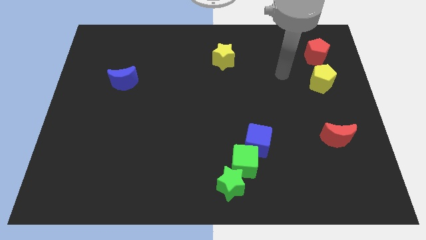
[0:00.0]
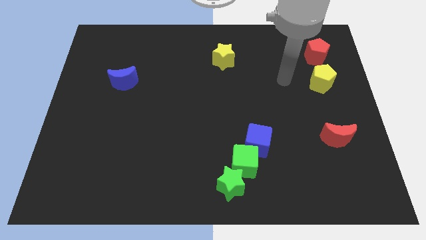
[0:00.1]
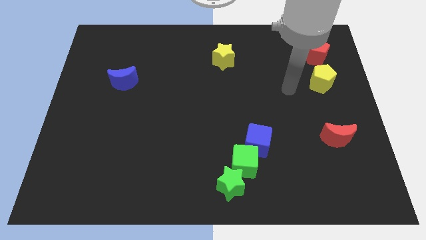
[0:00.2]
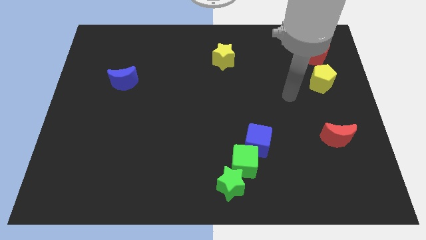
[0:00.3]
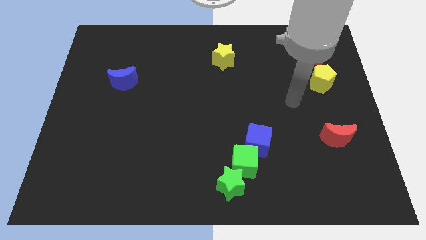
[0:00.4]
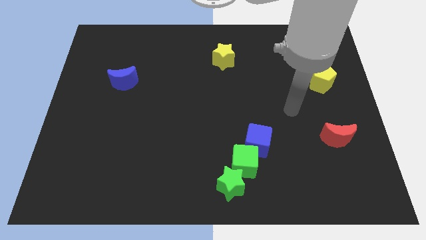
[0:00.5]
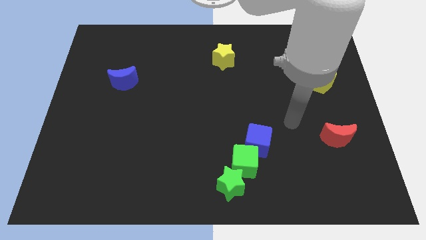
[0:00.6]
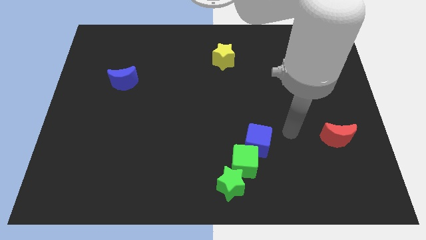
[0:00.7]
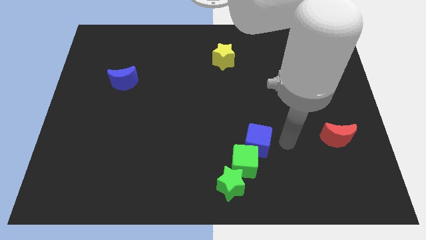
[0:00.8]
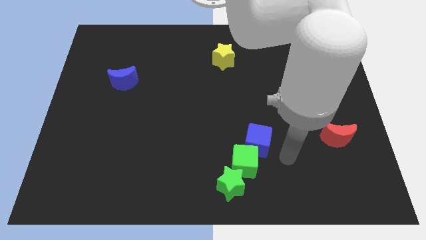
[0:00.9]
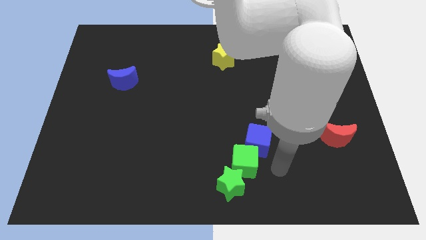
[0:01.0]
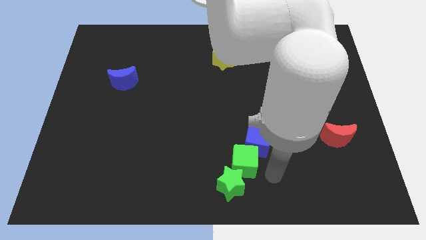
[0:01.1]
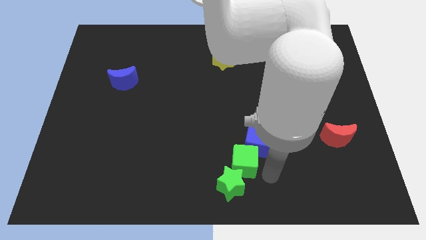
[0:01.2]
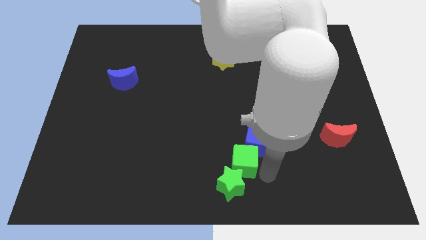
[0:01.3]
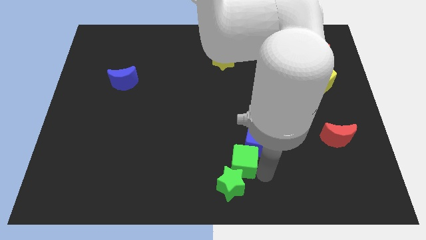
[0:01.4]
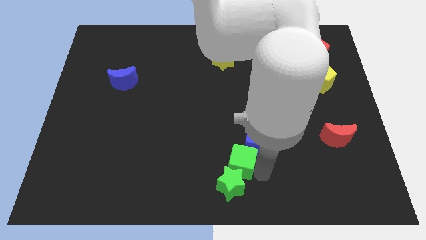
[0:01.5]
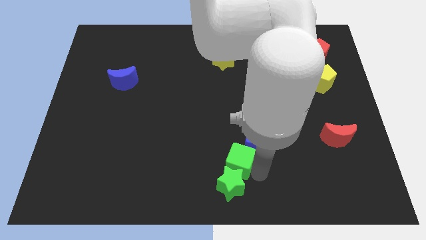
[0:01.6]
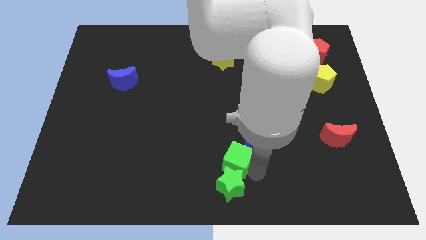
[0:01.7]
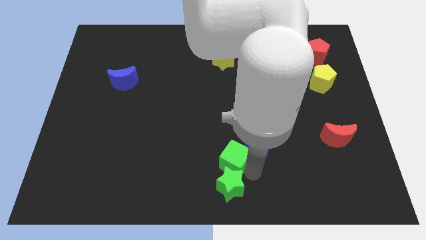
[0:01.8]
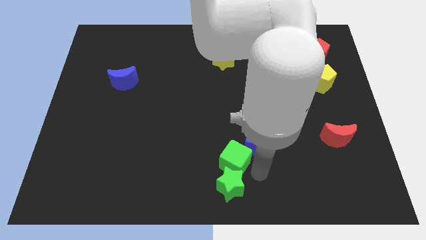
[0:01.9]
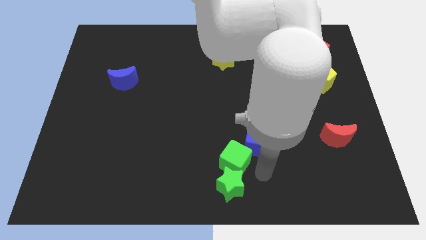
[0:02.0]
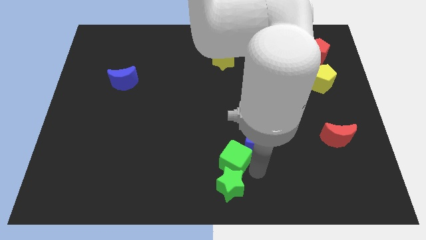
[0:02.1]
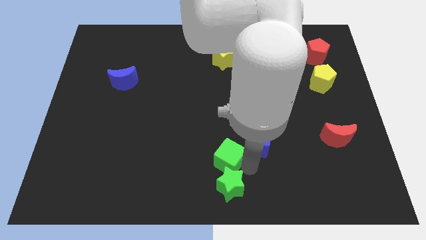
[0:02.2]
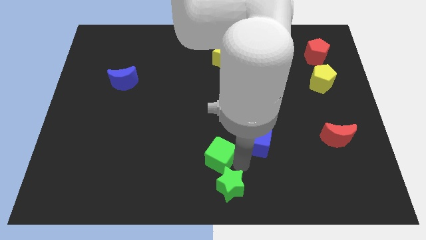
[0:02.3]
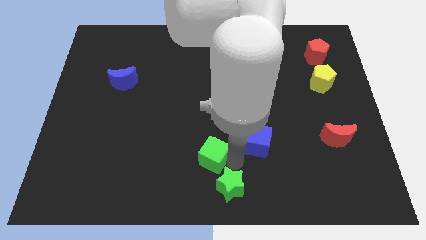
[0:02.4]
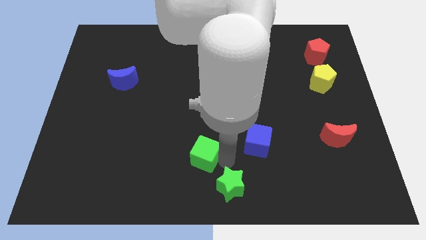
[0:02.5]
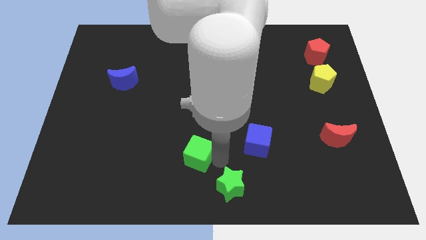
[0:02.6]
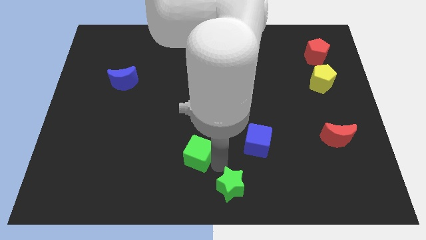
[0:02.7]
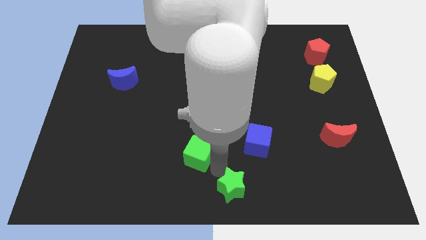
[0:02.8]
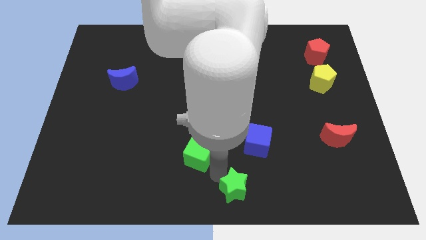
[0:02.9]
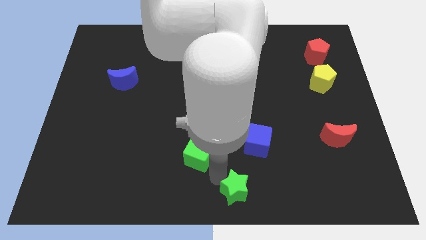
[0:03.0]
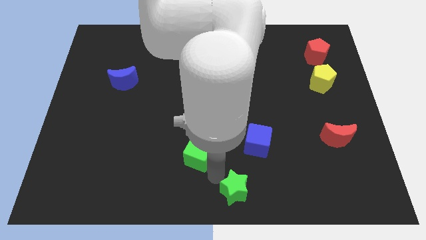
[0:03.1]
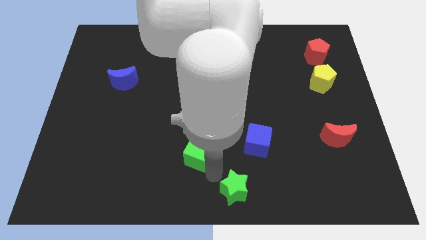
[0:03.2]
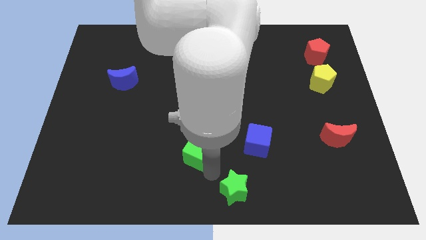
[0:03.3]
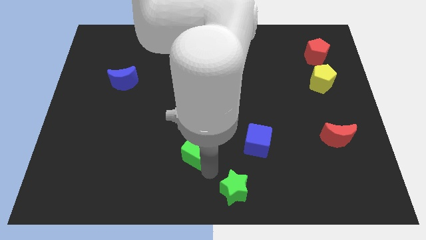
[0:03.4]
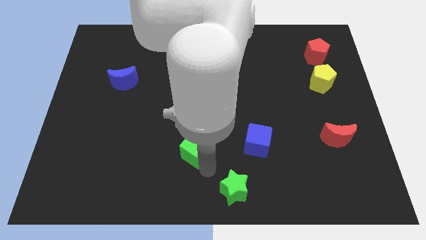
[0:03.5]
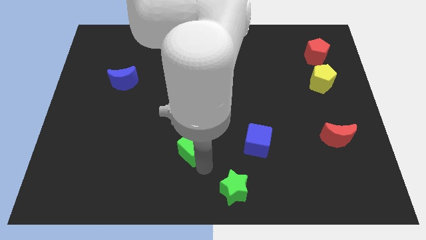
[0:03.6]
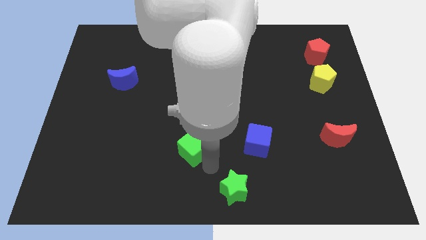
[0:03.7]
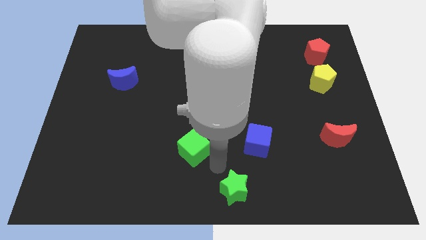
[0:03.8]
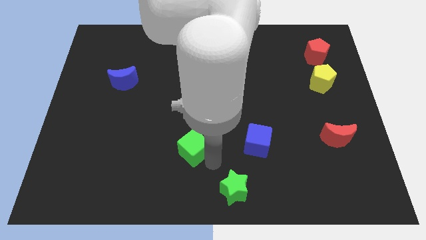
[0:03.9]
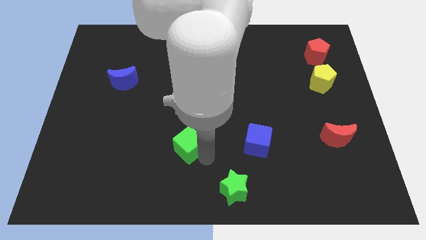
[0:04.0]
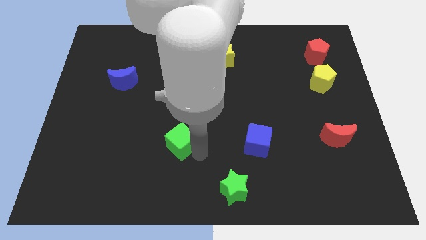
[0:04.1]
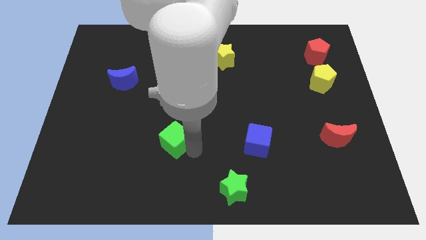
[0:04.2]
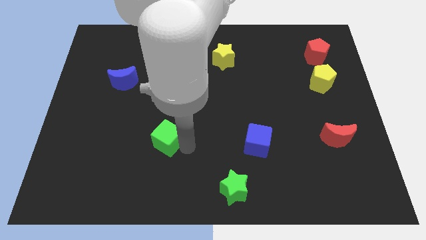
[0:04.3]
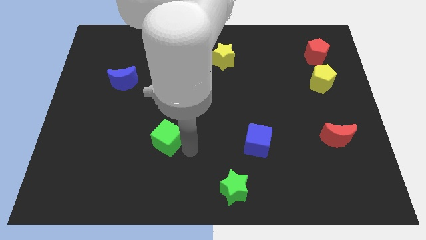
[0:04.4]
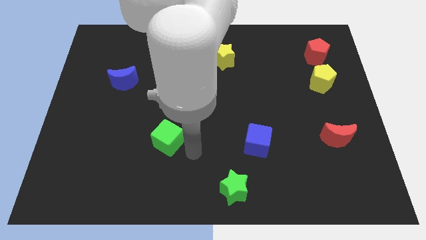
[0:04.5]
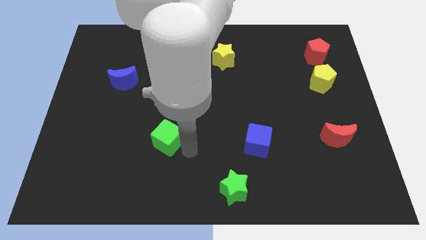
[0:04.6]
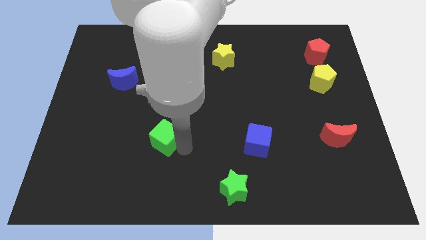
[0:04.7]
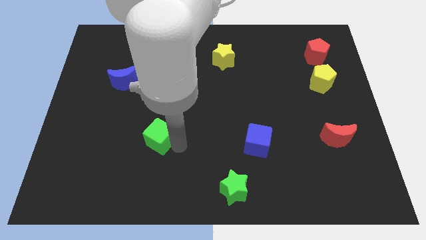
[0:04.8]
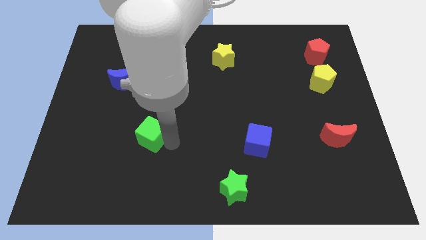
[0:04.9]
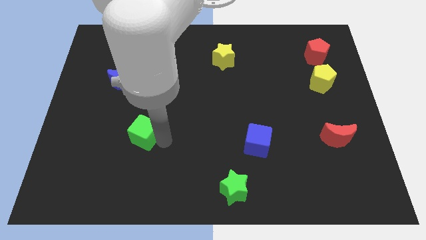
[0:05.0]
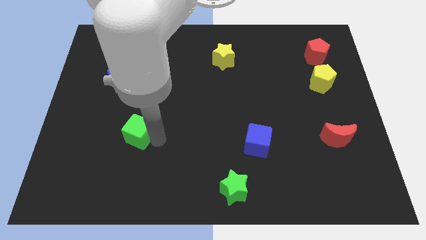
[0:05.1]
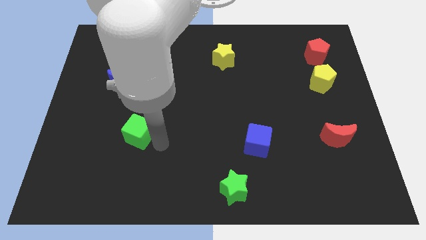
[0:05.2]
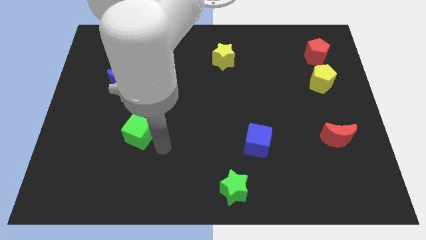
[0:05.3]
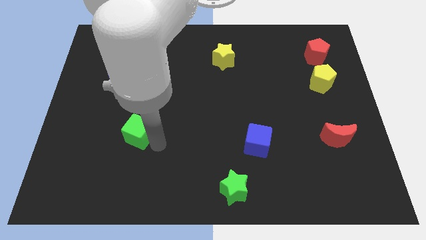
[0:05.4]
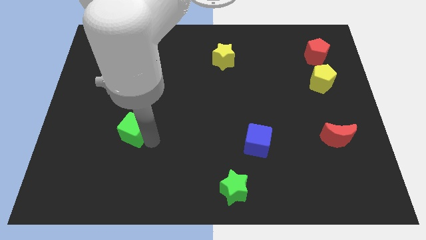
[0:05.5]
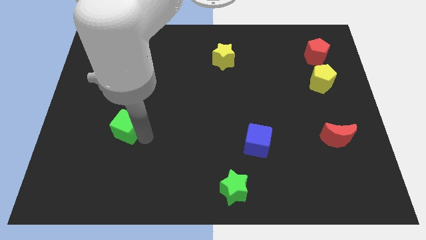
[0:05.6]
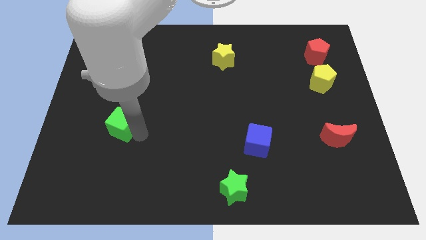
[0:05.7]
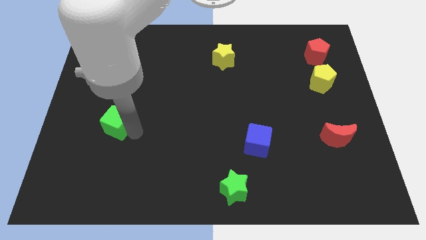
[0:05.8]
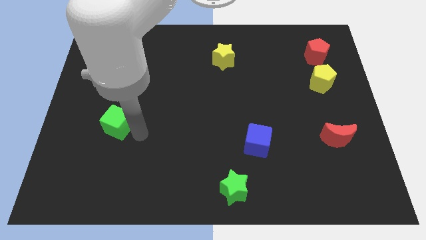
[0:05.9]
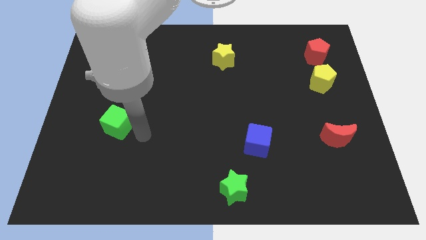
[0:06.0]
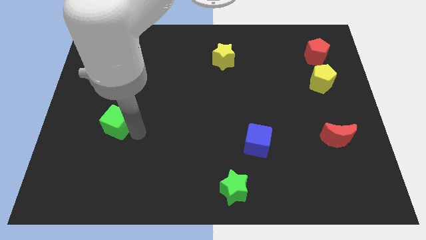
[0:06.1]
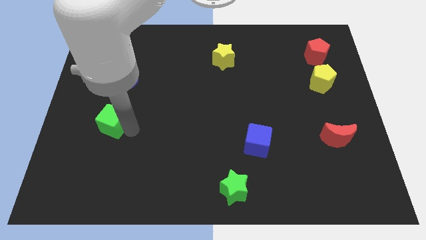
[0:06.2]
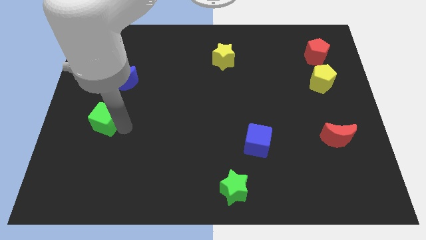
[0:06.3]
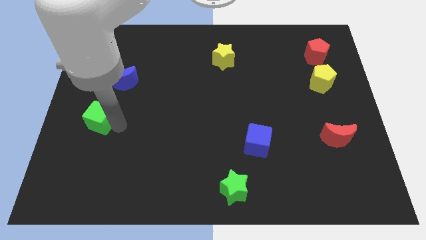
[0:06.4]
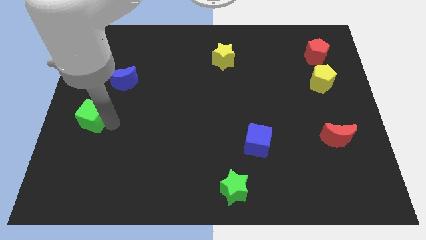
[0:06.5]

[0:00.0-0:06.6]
push the green cube to the left side
